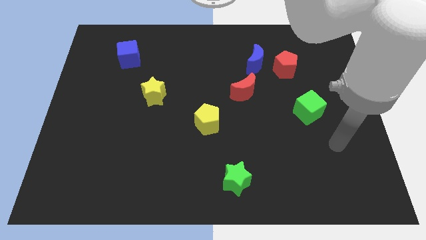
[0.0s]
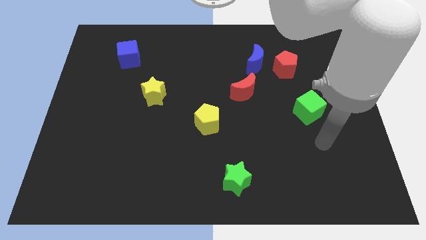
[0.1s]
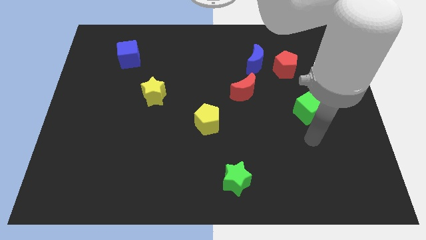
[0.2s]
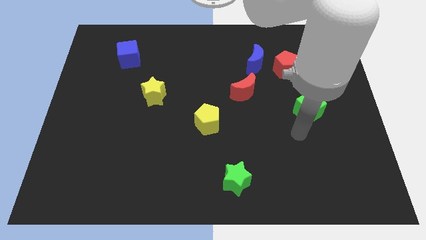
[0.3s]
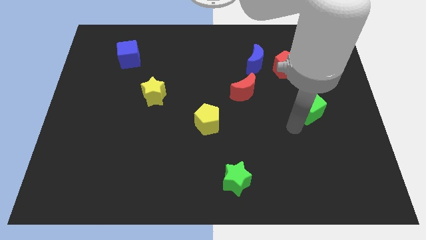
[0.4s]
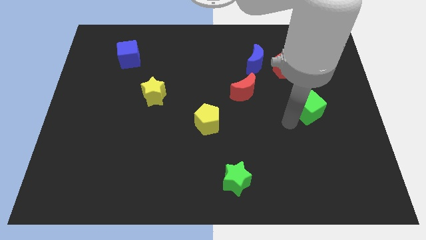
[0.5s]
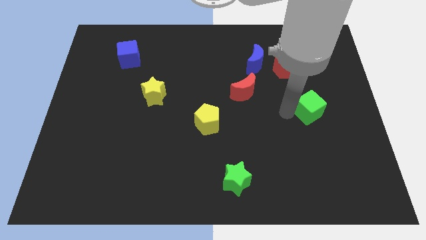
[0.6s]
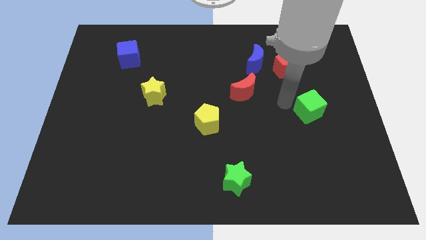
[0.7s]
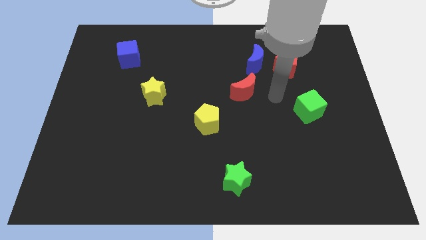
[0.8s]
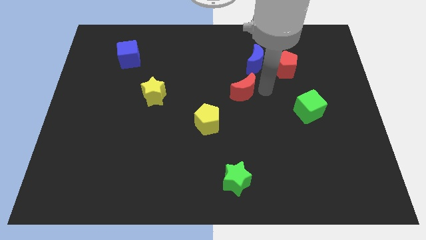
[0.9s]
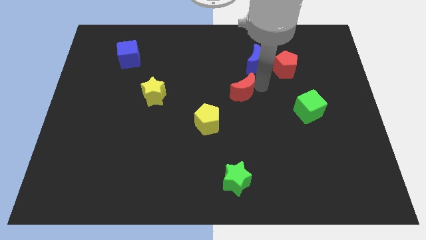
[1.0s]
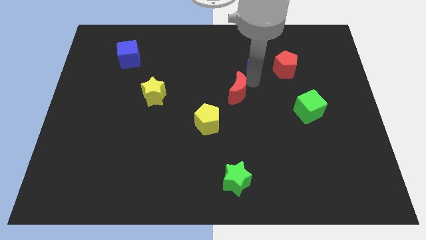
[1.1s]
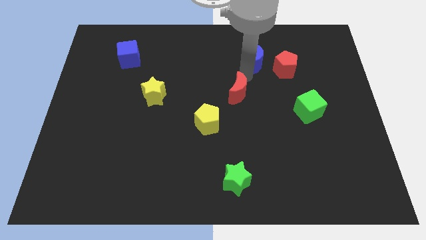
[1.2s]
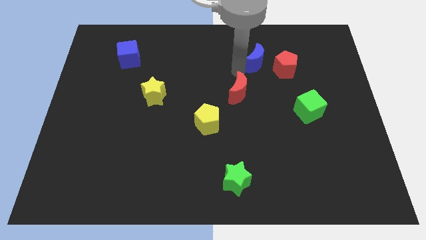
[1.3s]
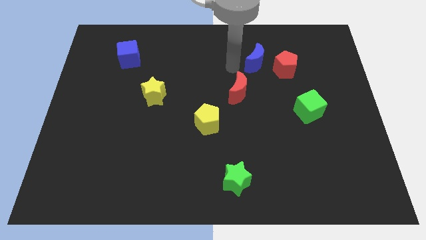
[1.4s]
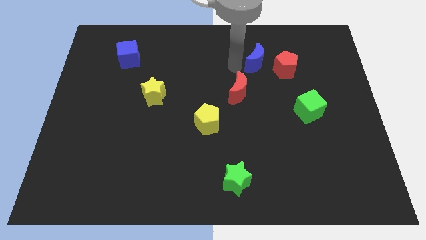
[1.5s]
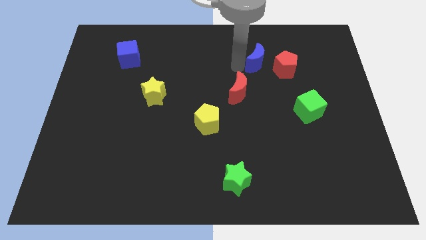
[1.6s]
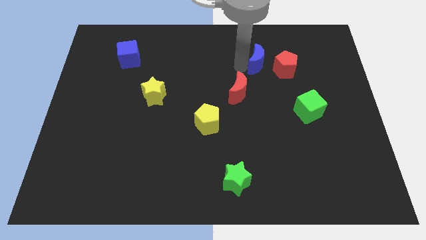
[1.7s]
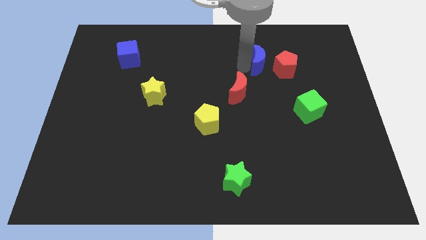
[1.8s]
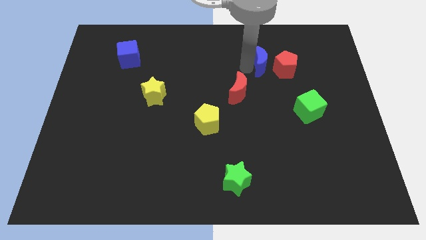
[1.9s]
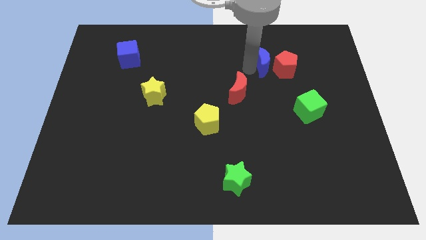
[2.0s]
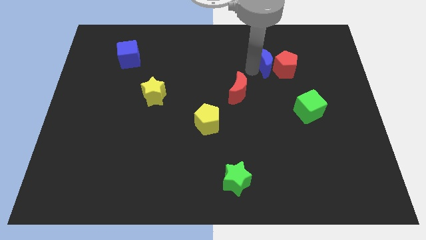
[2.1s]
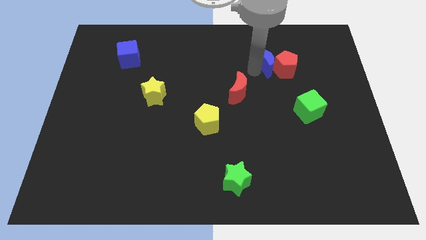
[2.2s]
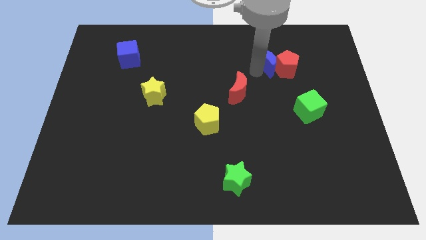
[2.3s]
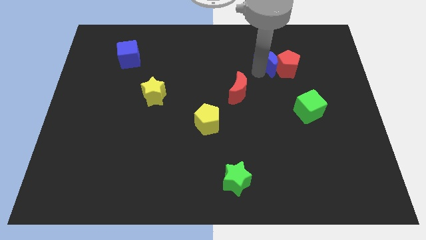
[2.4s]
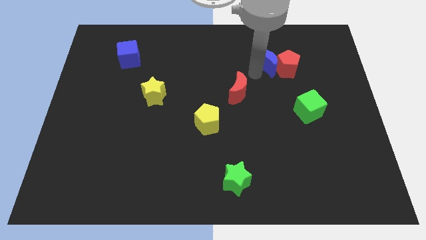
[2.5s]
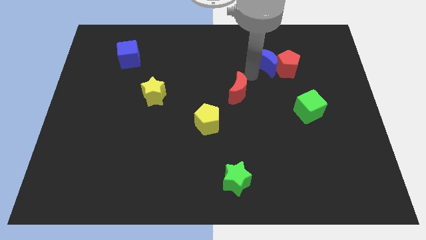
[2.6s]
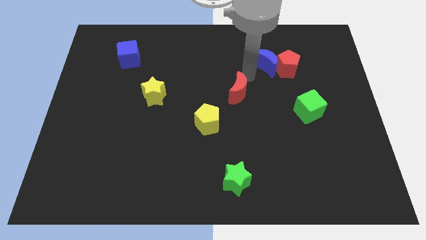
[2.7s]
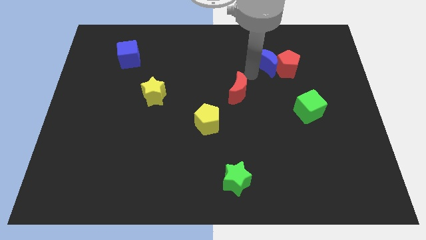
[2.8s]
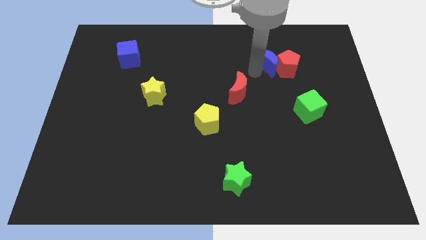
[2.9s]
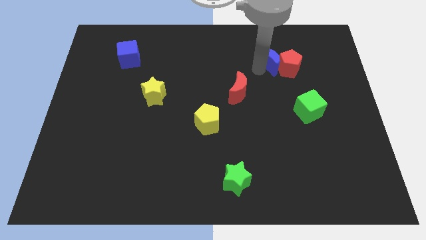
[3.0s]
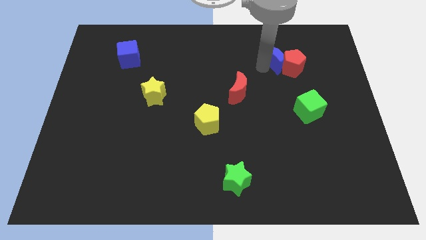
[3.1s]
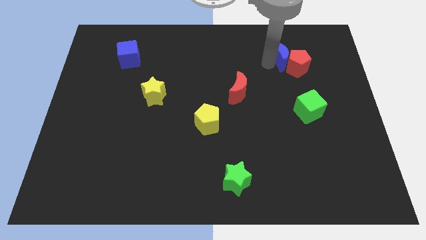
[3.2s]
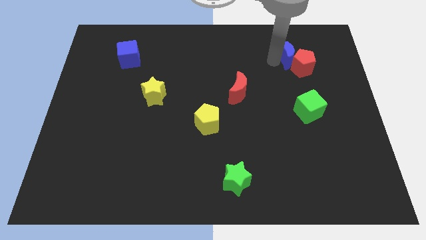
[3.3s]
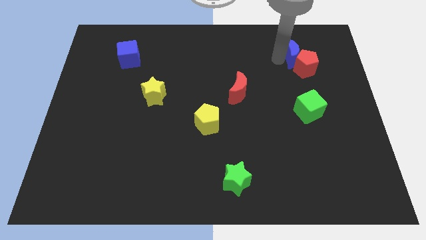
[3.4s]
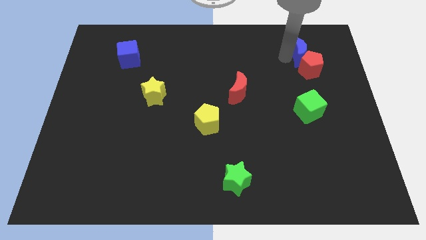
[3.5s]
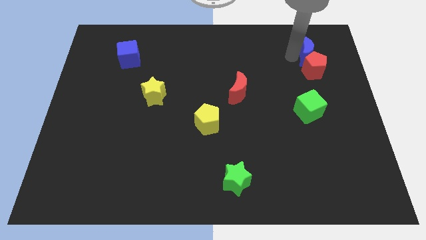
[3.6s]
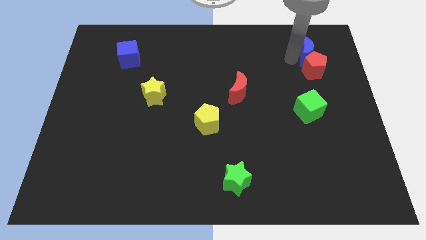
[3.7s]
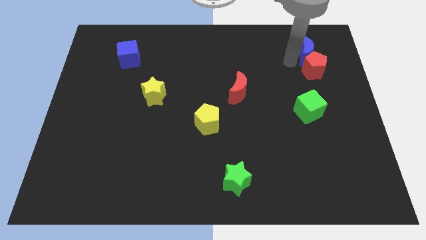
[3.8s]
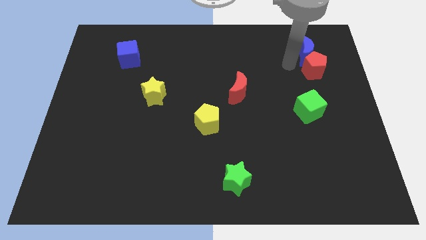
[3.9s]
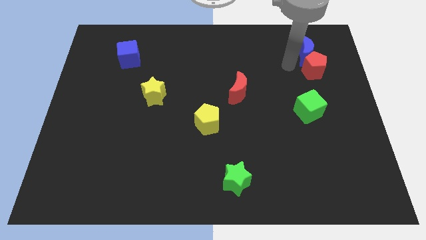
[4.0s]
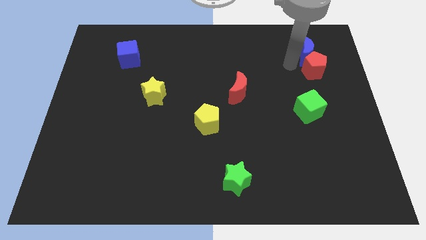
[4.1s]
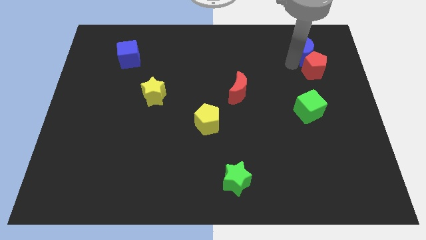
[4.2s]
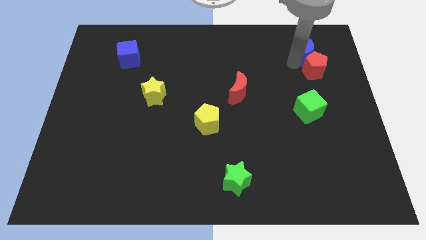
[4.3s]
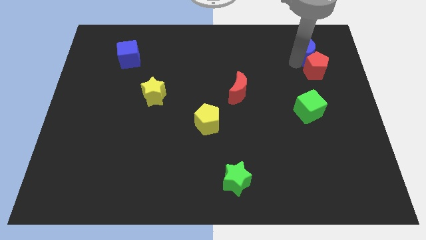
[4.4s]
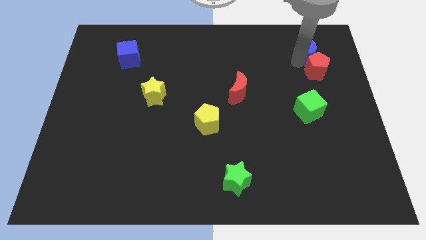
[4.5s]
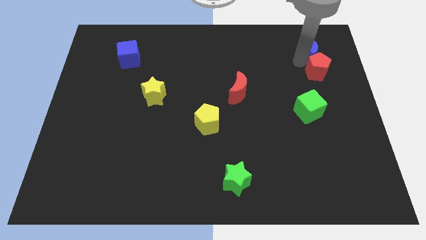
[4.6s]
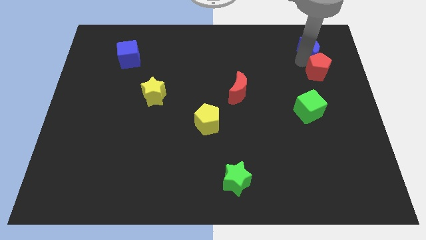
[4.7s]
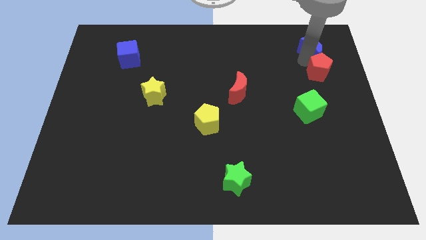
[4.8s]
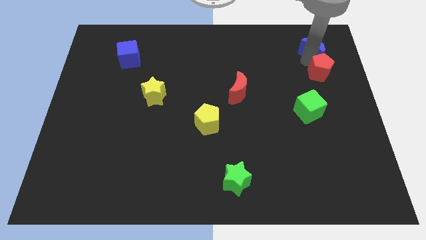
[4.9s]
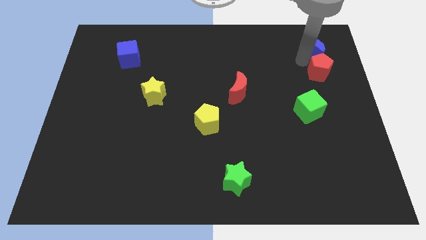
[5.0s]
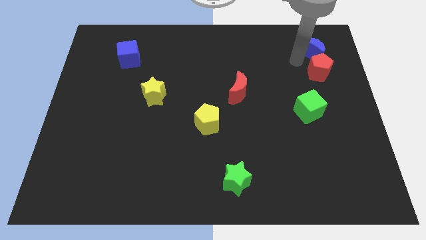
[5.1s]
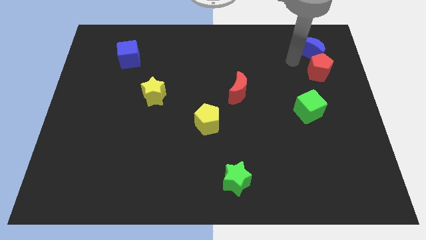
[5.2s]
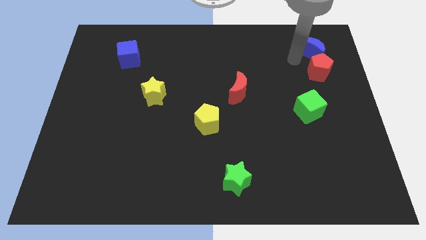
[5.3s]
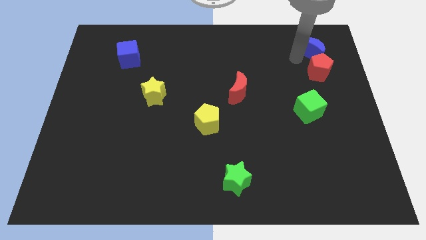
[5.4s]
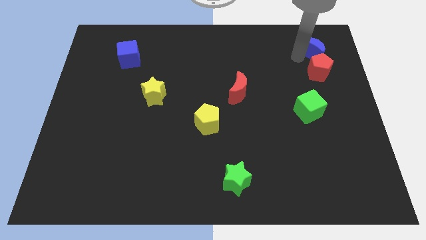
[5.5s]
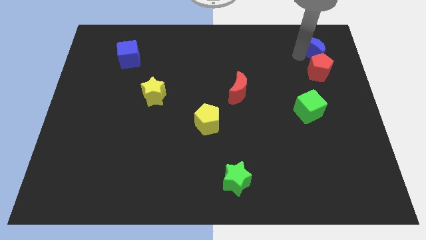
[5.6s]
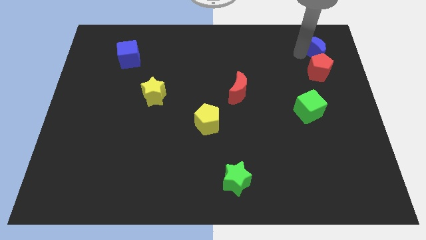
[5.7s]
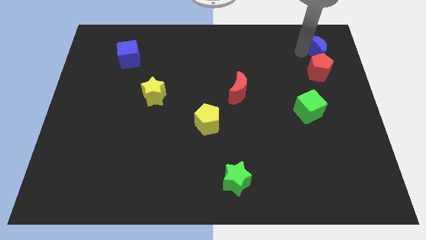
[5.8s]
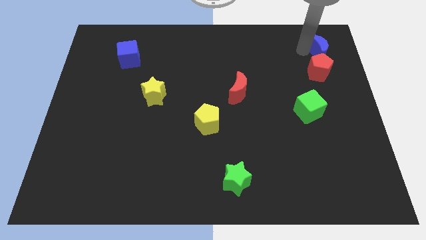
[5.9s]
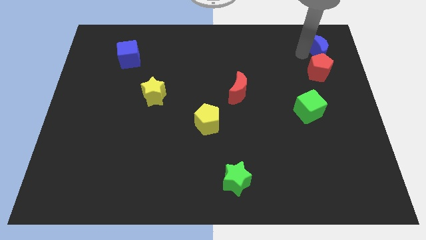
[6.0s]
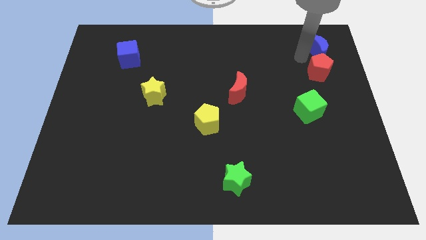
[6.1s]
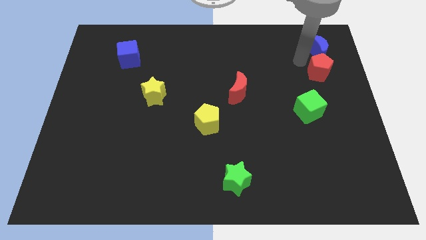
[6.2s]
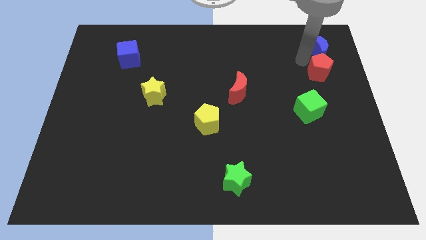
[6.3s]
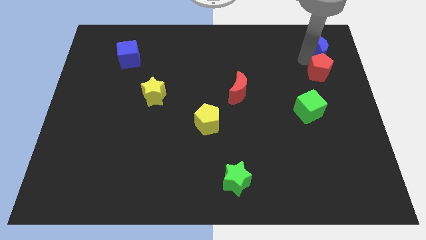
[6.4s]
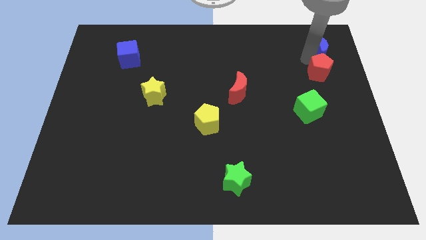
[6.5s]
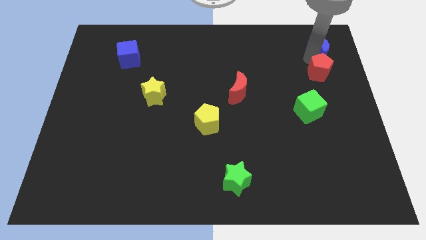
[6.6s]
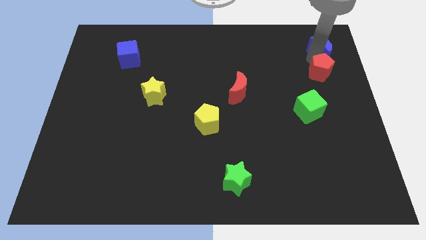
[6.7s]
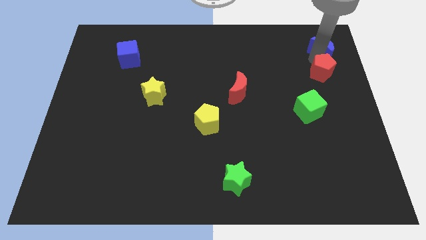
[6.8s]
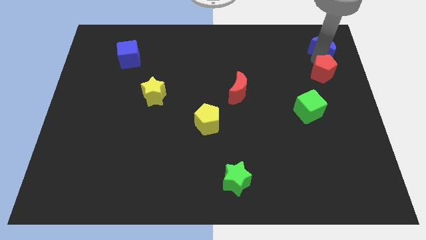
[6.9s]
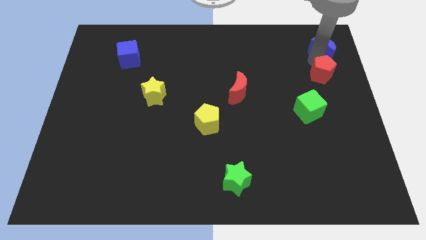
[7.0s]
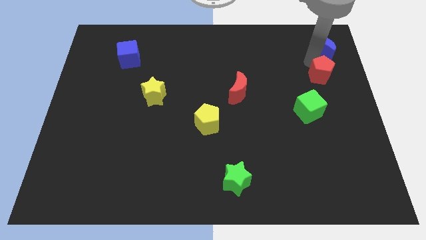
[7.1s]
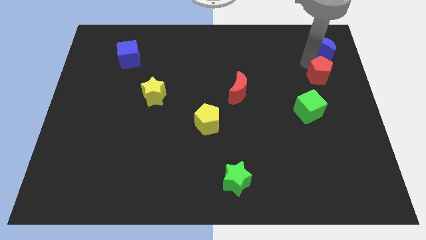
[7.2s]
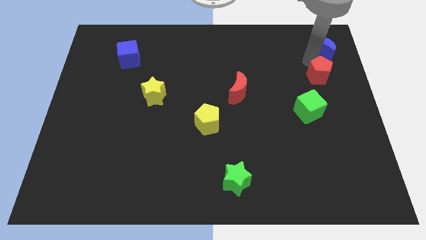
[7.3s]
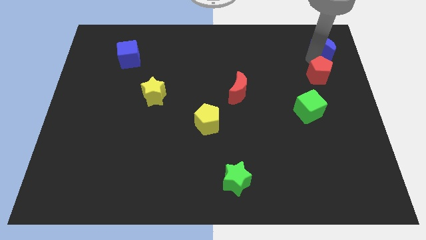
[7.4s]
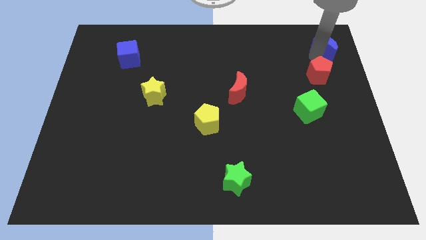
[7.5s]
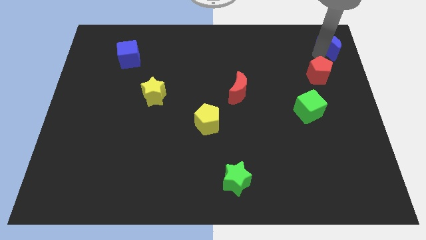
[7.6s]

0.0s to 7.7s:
move the blue moon to the upper right corner

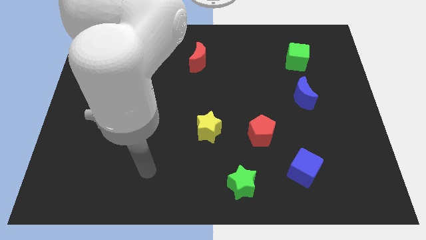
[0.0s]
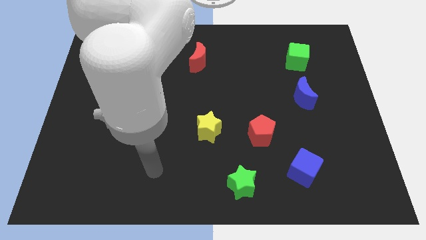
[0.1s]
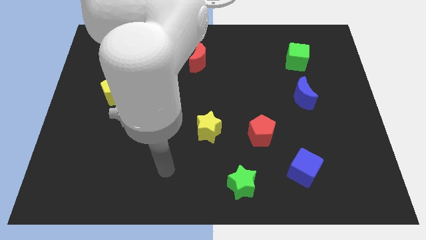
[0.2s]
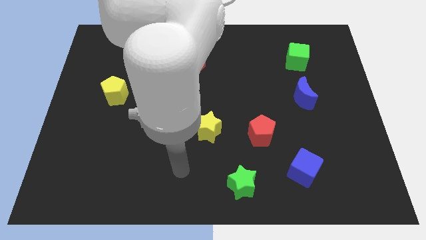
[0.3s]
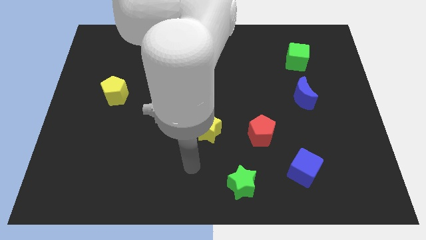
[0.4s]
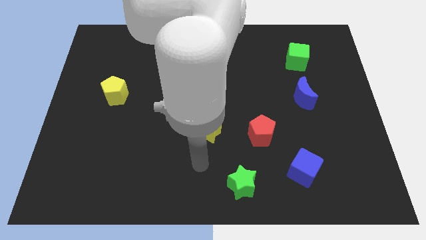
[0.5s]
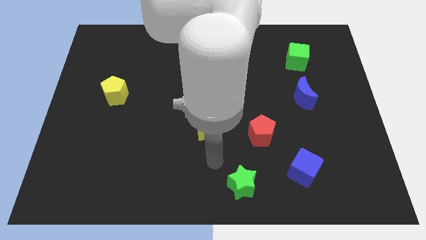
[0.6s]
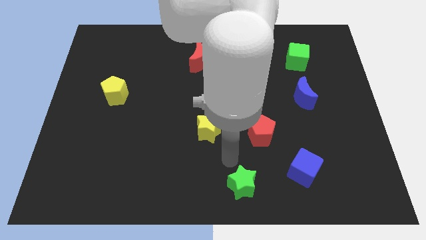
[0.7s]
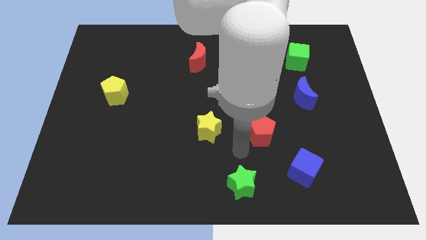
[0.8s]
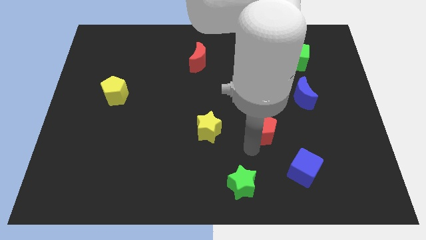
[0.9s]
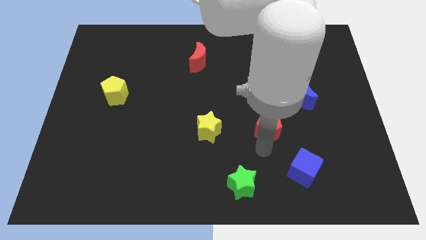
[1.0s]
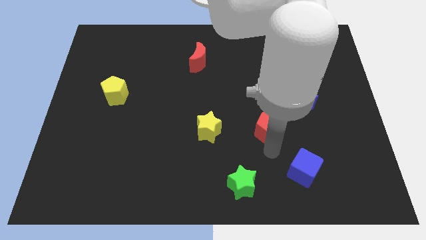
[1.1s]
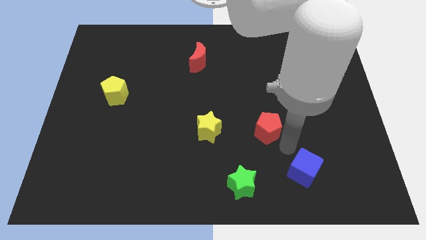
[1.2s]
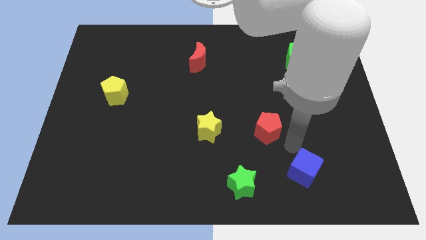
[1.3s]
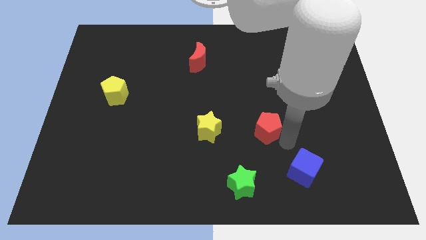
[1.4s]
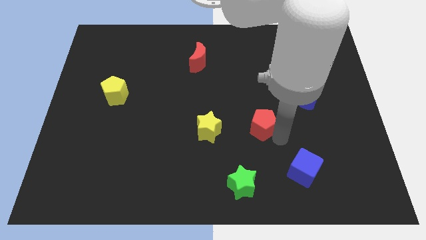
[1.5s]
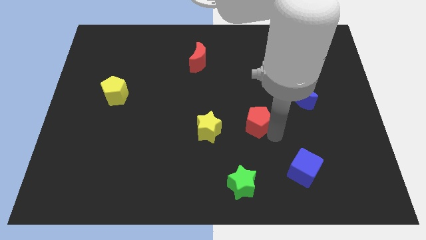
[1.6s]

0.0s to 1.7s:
put the red pentagon to the center of the board
